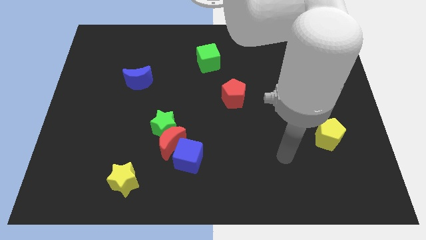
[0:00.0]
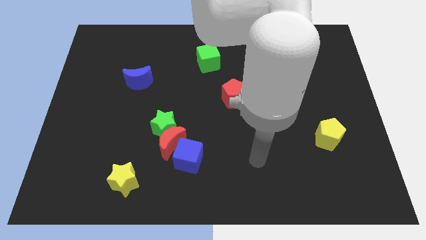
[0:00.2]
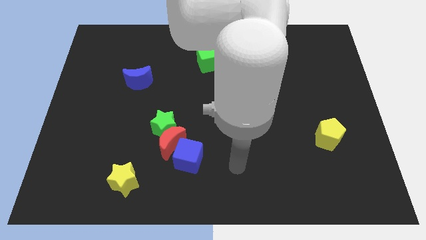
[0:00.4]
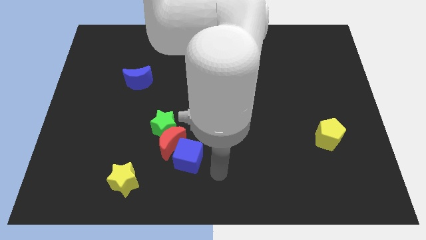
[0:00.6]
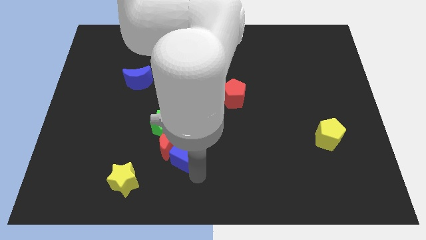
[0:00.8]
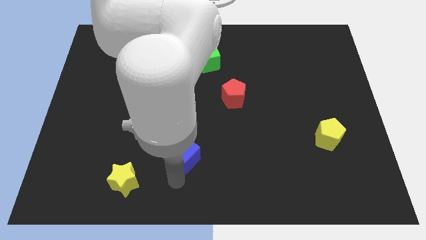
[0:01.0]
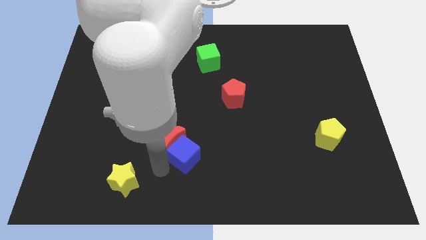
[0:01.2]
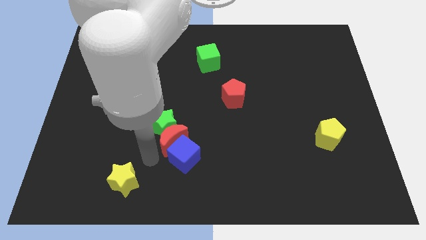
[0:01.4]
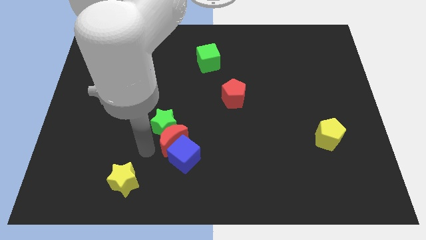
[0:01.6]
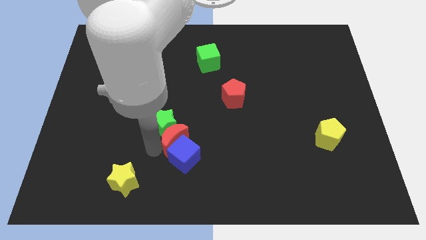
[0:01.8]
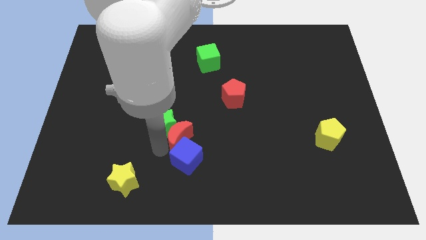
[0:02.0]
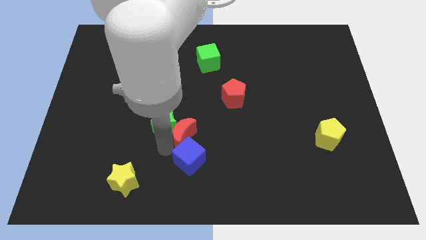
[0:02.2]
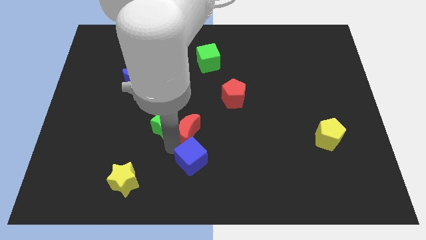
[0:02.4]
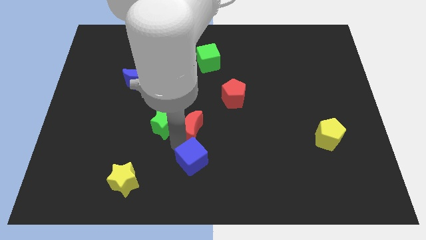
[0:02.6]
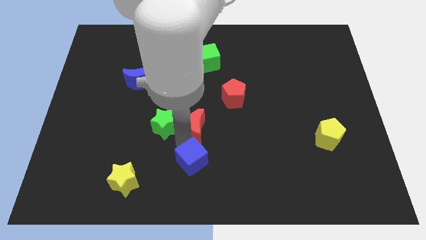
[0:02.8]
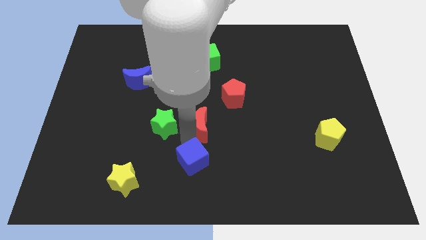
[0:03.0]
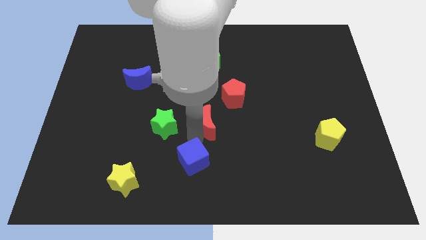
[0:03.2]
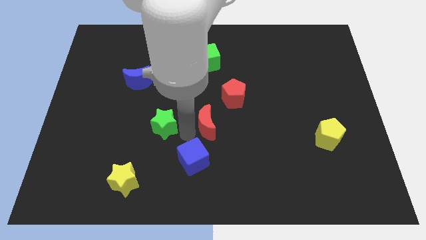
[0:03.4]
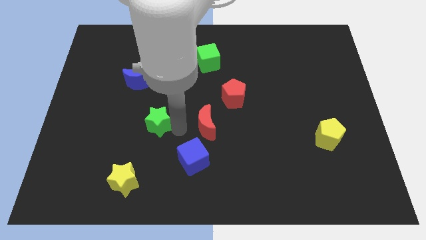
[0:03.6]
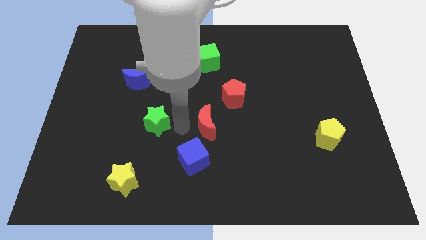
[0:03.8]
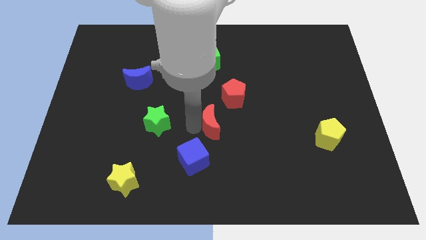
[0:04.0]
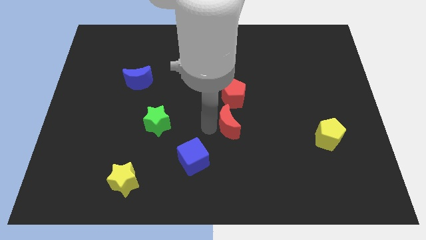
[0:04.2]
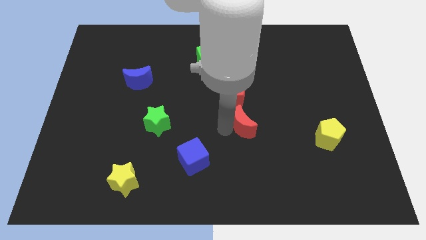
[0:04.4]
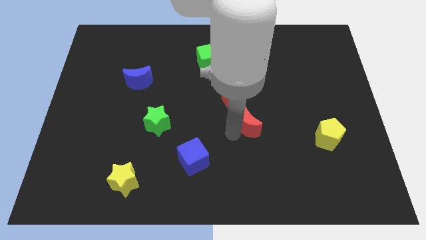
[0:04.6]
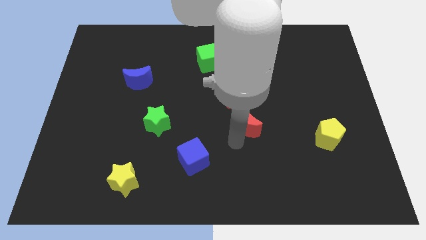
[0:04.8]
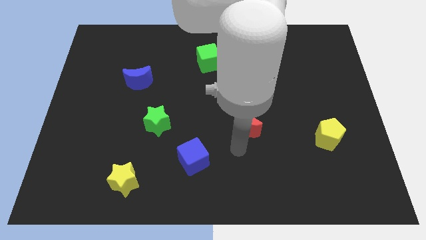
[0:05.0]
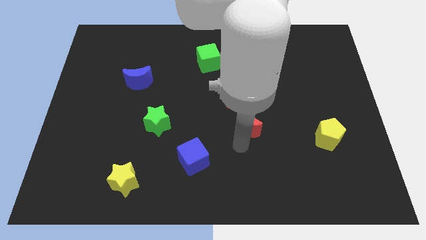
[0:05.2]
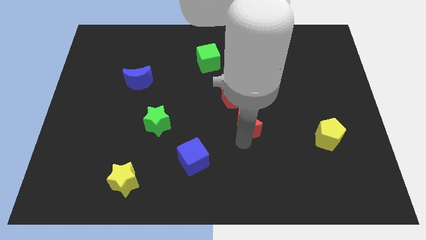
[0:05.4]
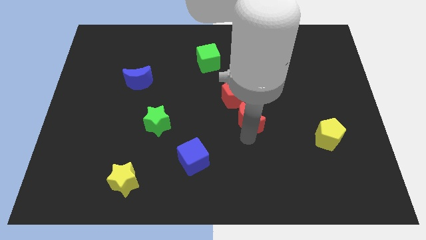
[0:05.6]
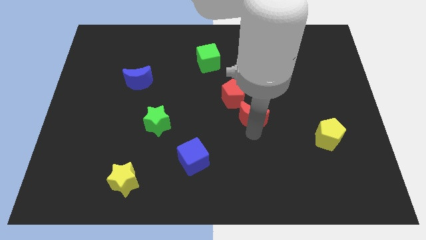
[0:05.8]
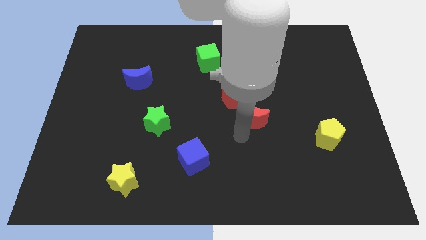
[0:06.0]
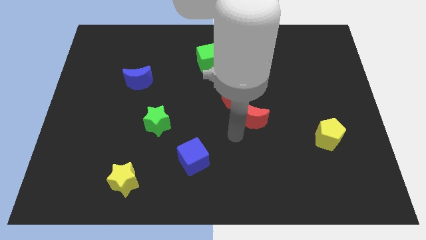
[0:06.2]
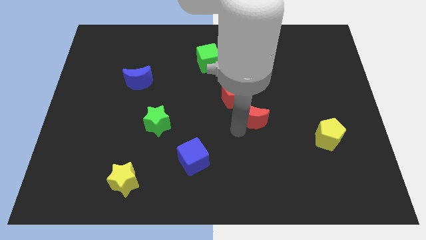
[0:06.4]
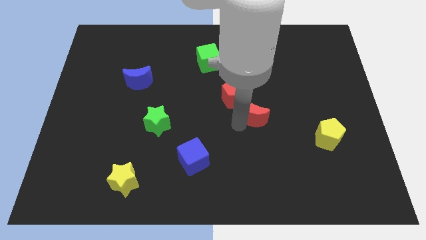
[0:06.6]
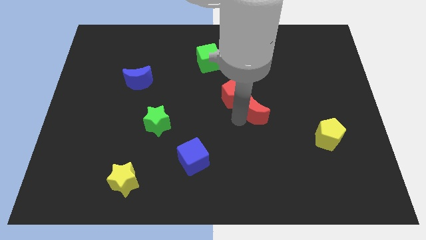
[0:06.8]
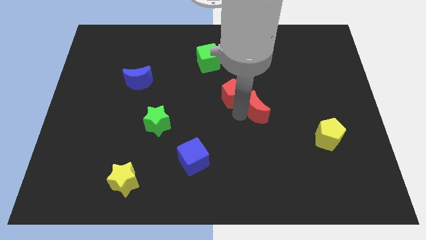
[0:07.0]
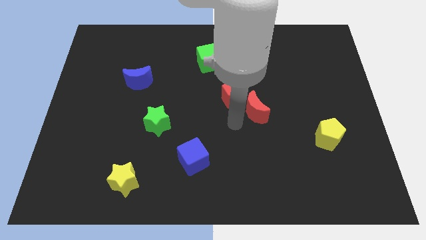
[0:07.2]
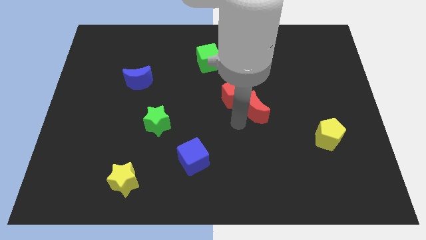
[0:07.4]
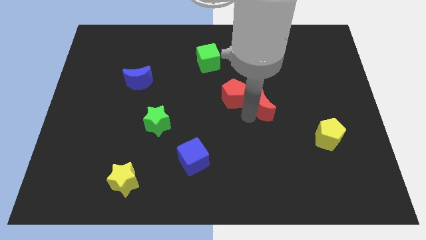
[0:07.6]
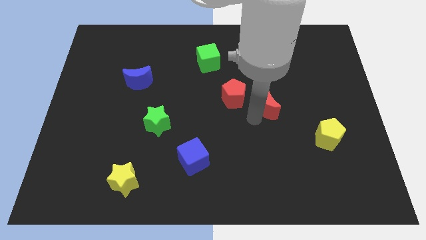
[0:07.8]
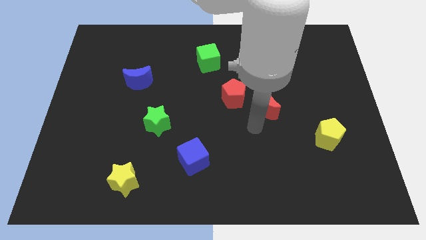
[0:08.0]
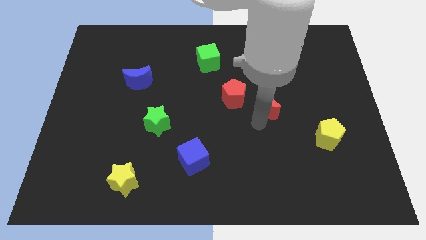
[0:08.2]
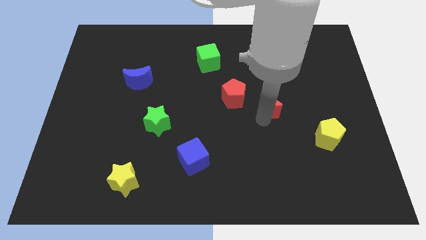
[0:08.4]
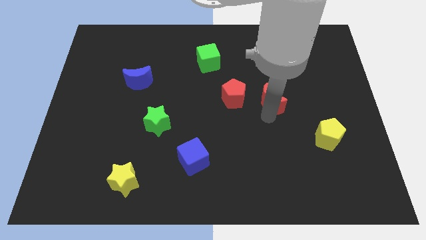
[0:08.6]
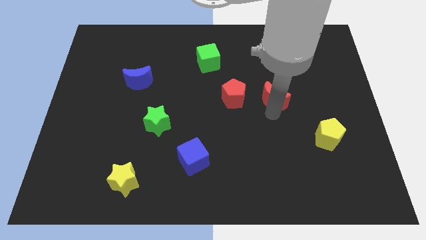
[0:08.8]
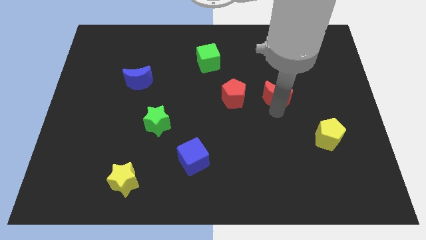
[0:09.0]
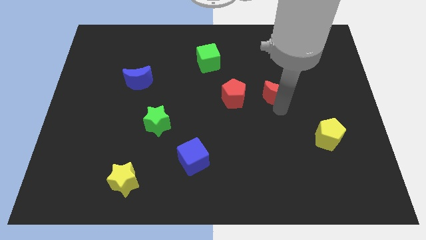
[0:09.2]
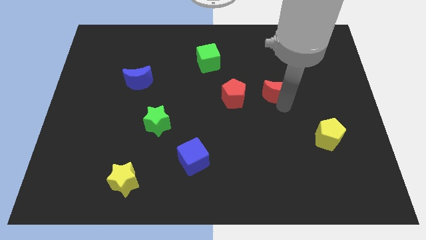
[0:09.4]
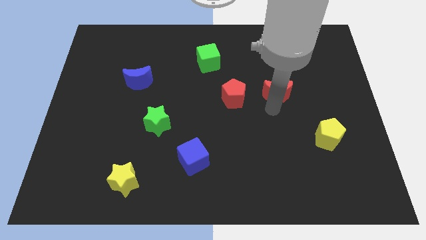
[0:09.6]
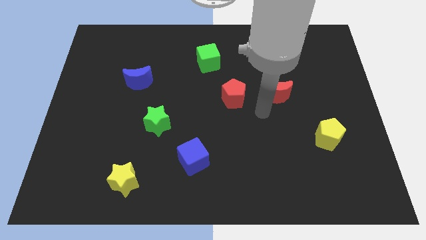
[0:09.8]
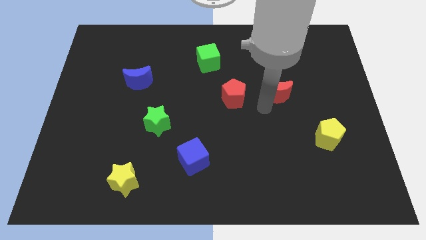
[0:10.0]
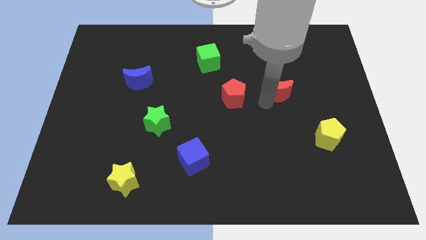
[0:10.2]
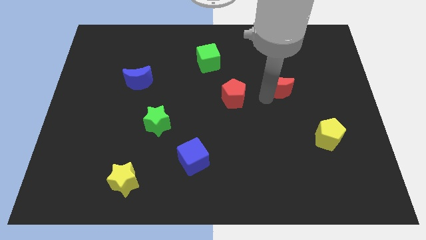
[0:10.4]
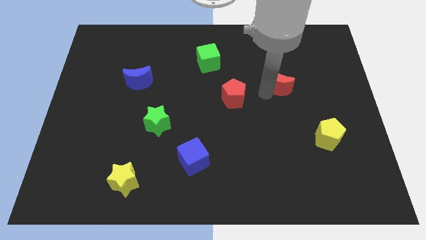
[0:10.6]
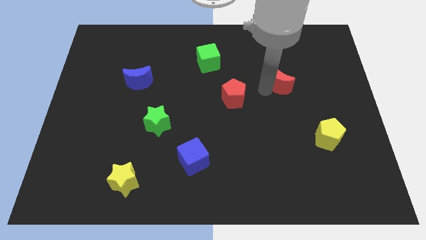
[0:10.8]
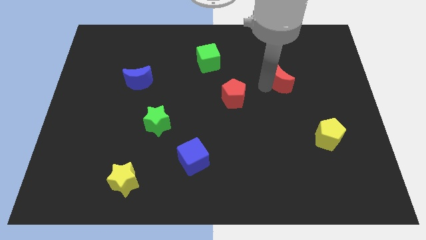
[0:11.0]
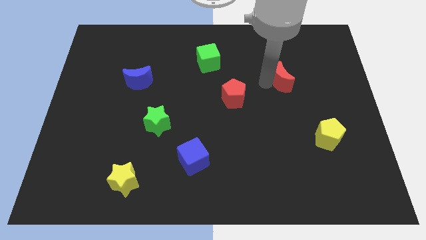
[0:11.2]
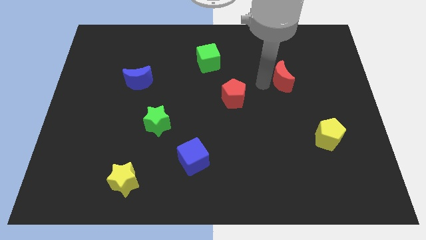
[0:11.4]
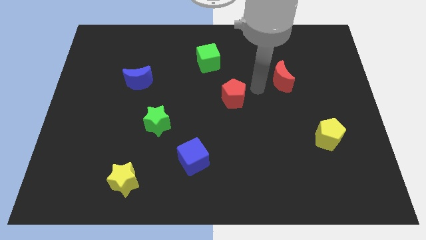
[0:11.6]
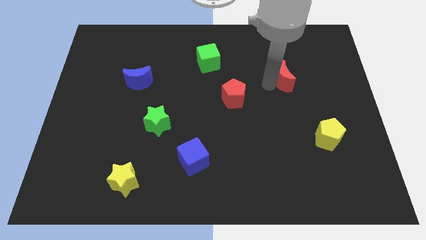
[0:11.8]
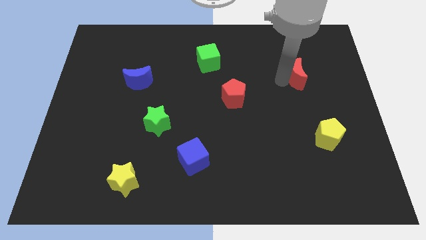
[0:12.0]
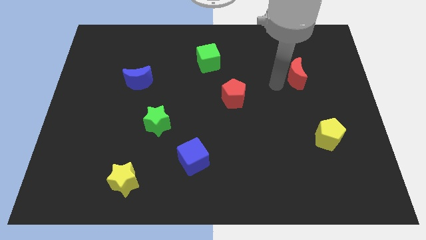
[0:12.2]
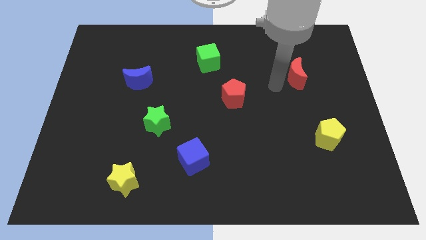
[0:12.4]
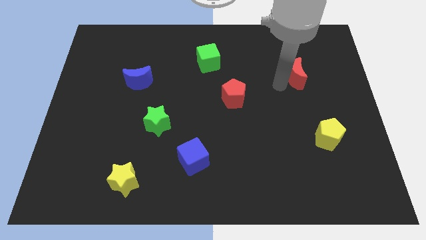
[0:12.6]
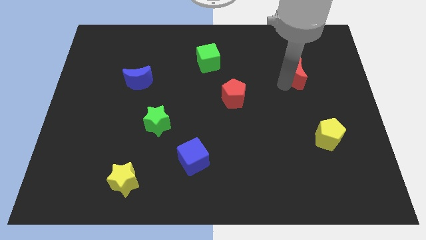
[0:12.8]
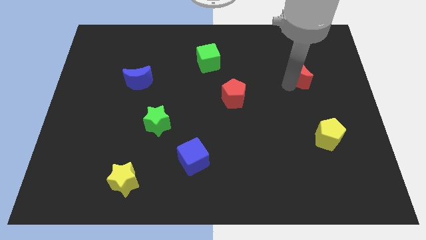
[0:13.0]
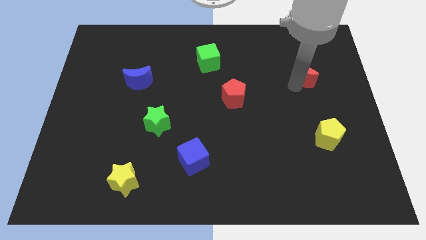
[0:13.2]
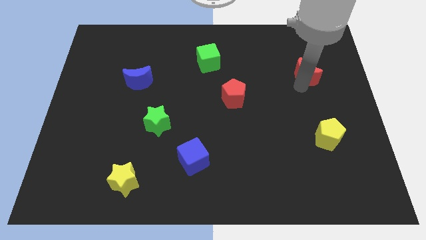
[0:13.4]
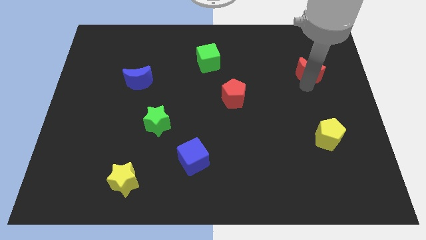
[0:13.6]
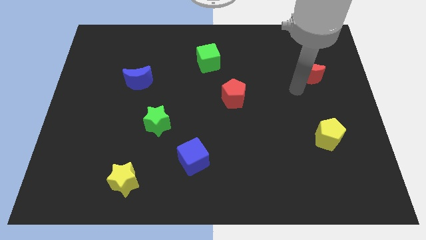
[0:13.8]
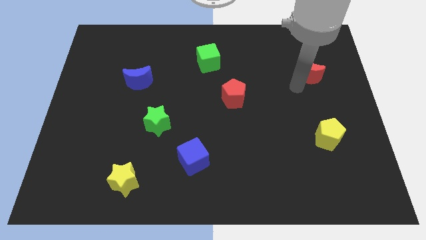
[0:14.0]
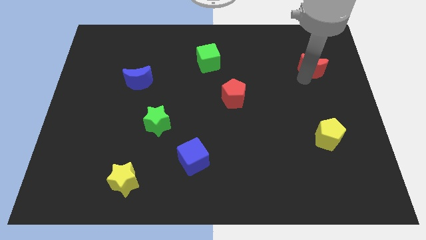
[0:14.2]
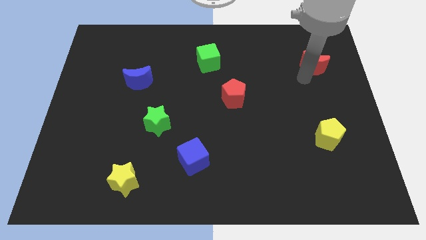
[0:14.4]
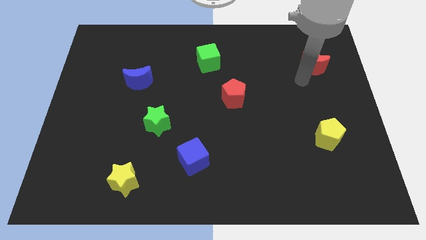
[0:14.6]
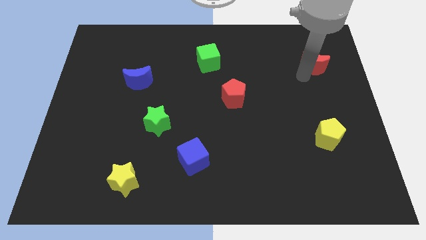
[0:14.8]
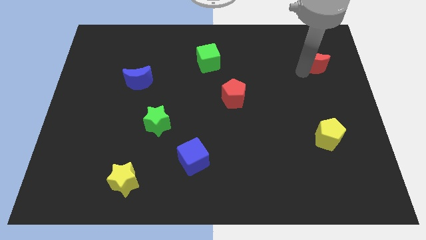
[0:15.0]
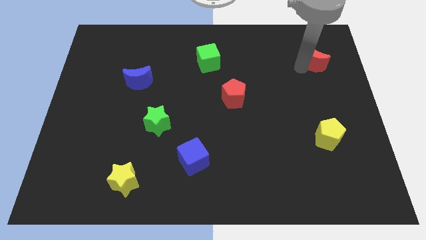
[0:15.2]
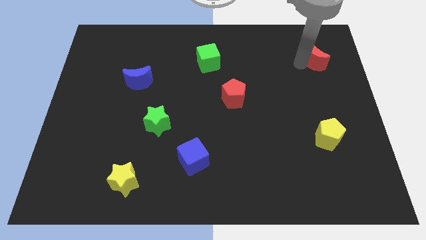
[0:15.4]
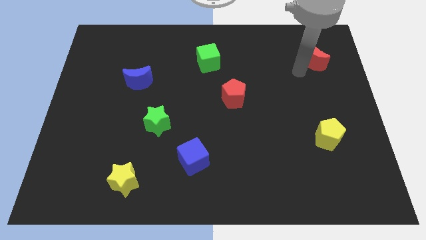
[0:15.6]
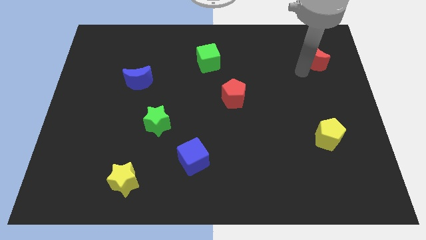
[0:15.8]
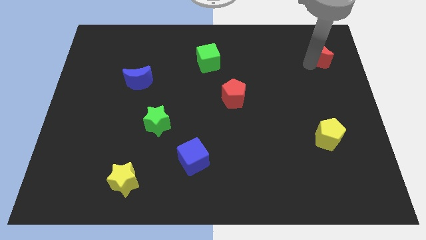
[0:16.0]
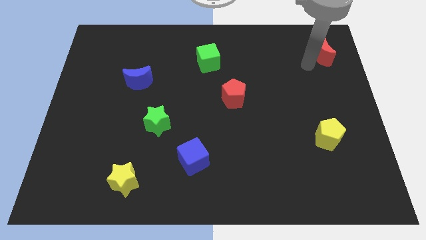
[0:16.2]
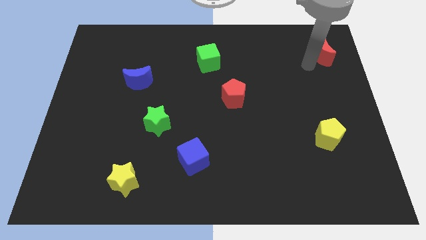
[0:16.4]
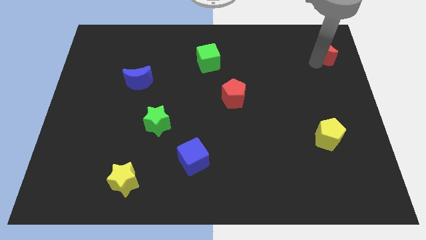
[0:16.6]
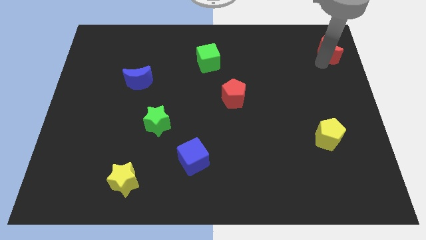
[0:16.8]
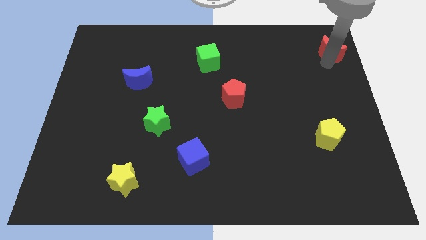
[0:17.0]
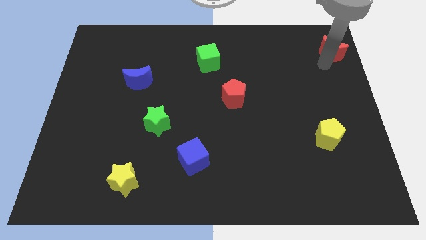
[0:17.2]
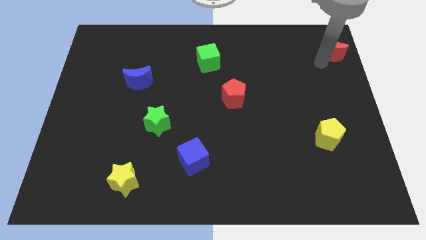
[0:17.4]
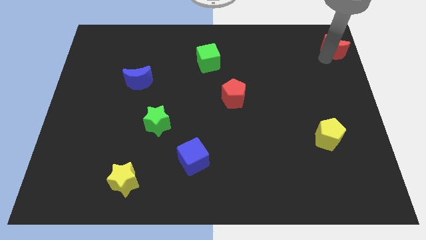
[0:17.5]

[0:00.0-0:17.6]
slide the red moon to the upper right corner
